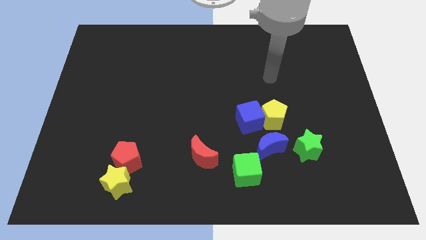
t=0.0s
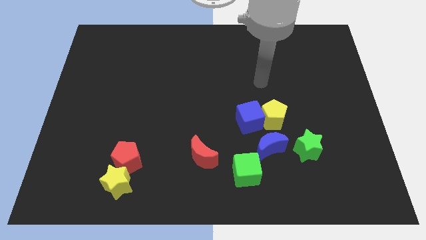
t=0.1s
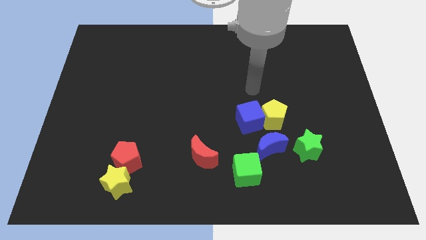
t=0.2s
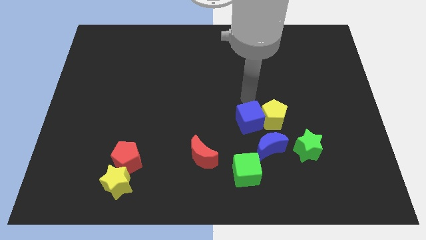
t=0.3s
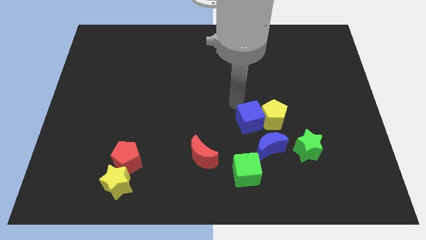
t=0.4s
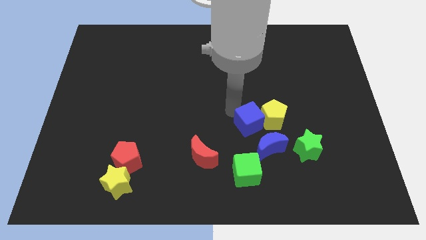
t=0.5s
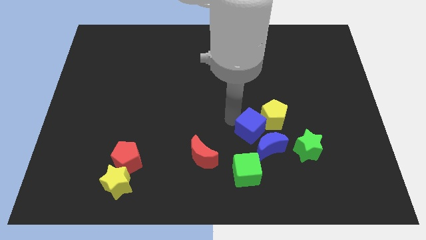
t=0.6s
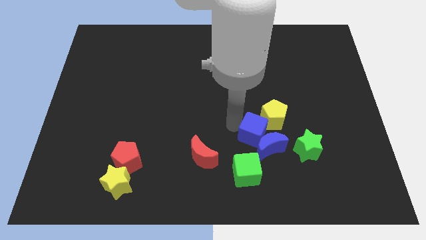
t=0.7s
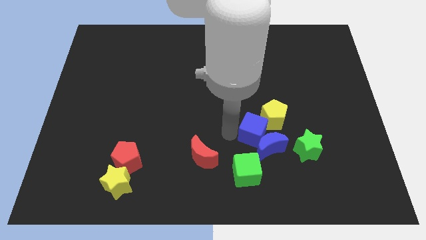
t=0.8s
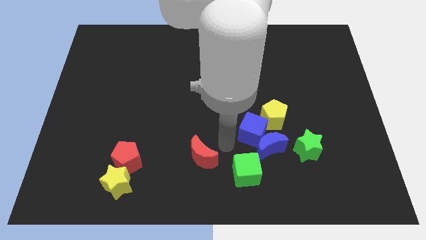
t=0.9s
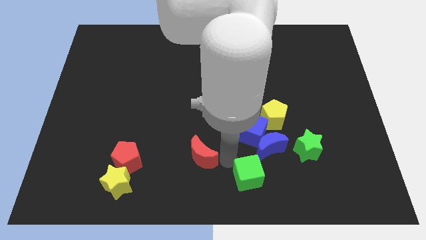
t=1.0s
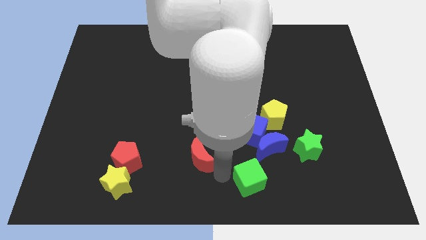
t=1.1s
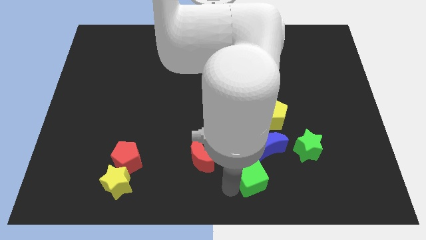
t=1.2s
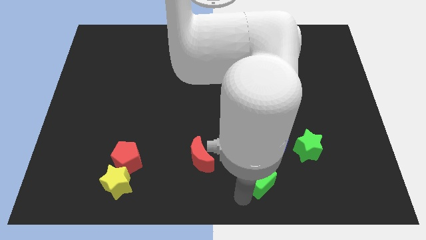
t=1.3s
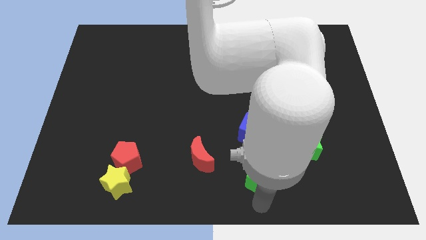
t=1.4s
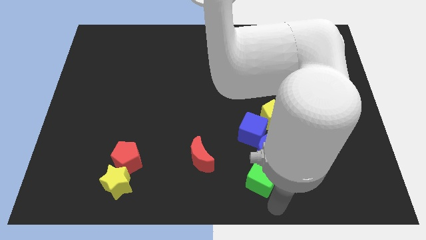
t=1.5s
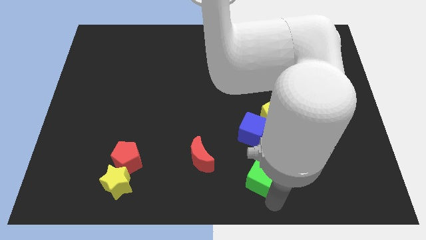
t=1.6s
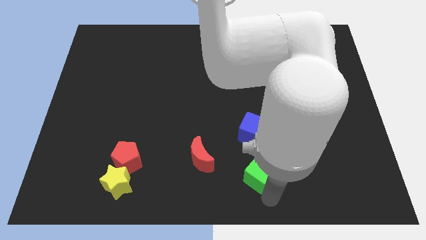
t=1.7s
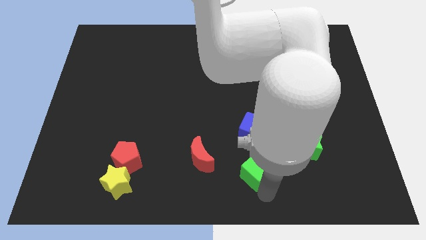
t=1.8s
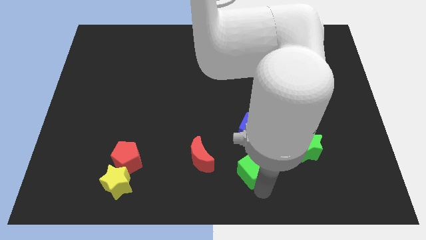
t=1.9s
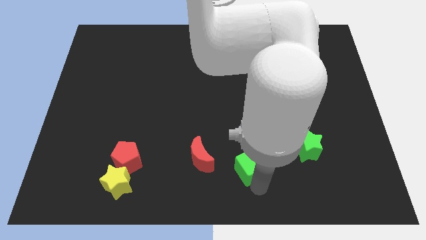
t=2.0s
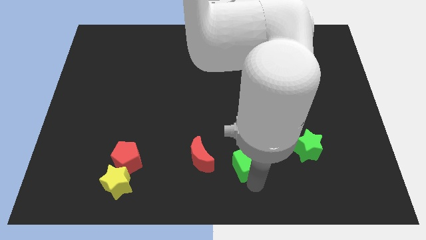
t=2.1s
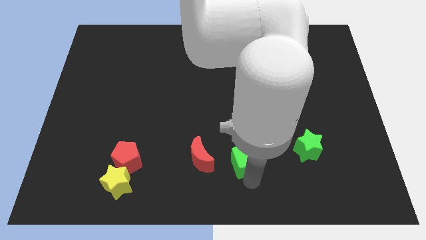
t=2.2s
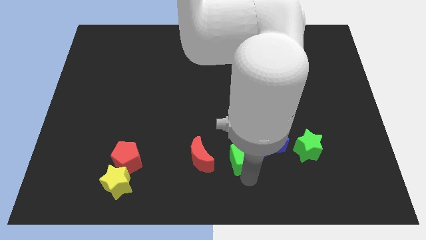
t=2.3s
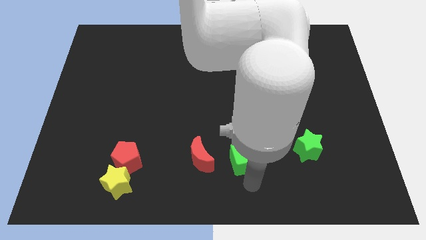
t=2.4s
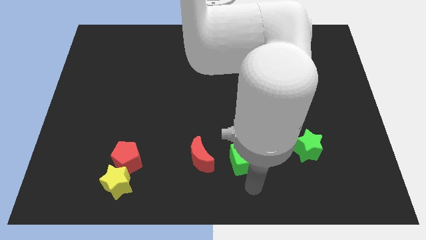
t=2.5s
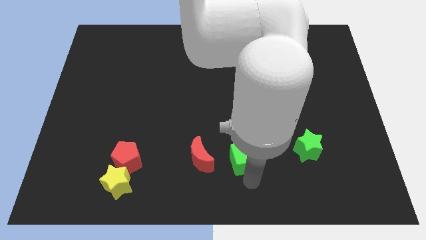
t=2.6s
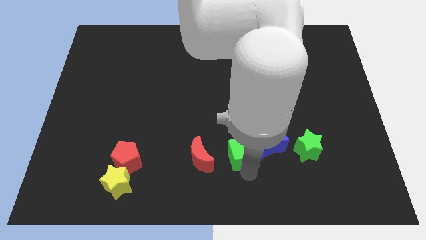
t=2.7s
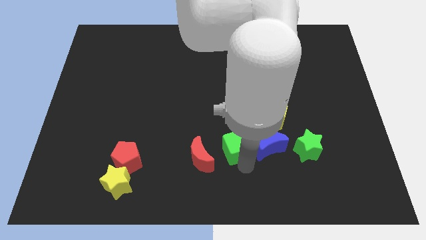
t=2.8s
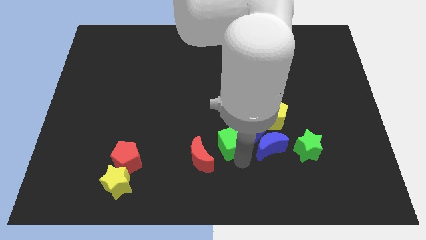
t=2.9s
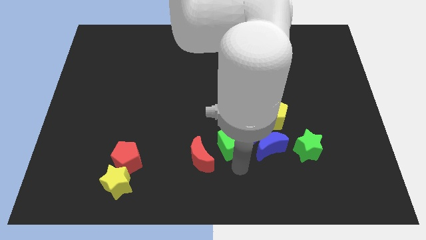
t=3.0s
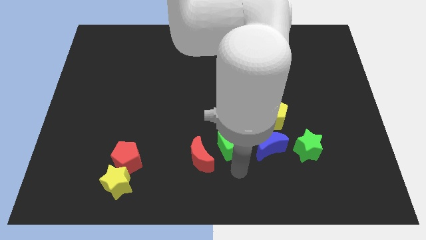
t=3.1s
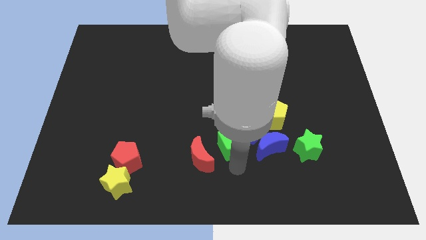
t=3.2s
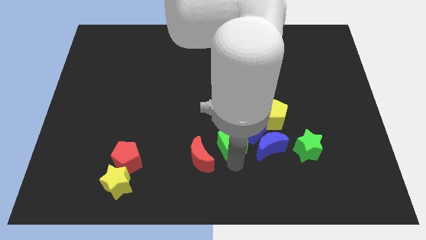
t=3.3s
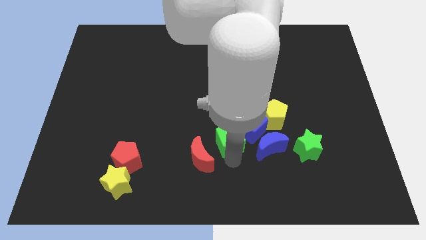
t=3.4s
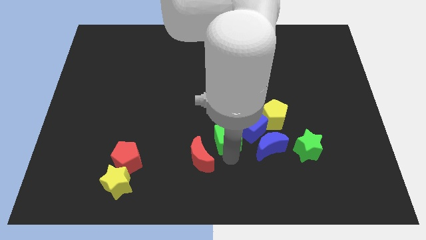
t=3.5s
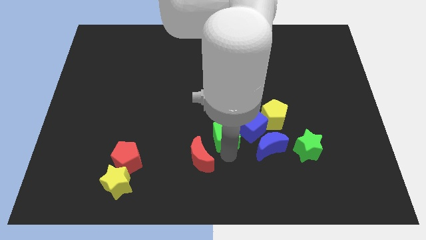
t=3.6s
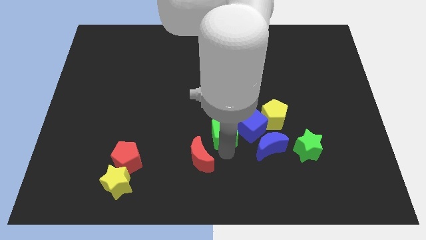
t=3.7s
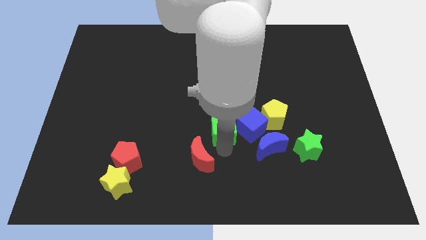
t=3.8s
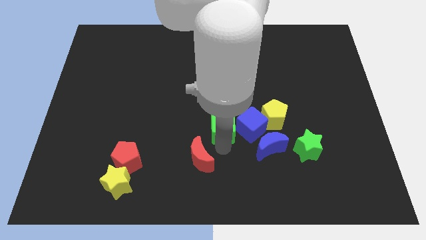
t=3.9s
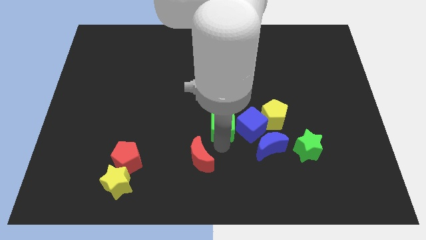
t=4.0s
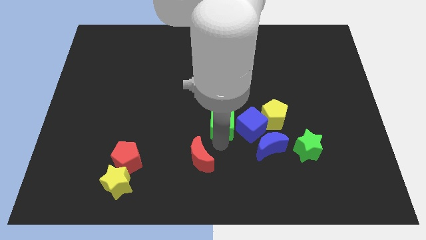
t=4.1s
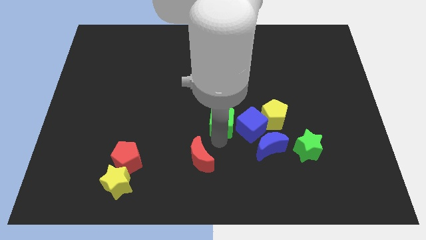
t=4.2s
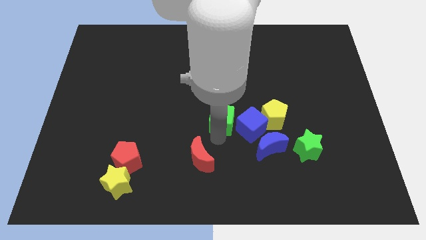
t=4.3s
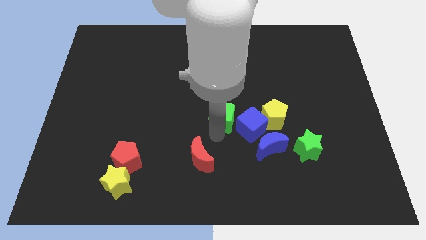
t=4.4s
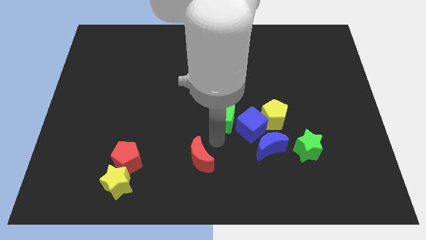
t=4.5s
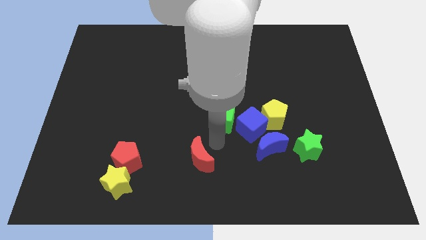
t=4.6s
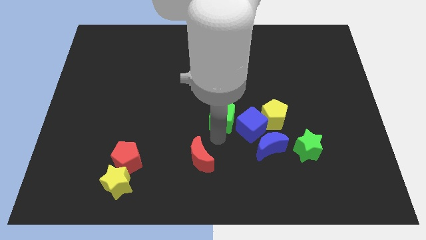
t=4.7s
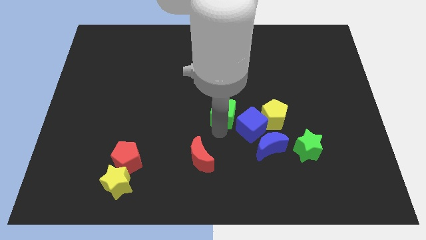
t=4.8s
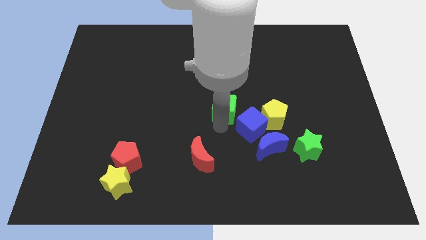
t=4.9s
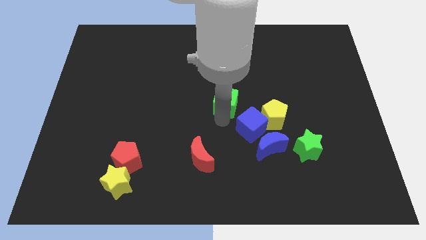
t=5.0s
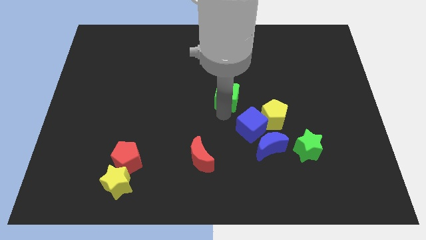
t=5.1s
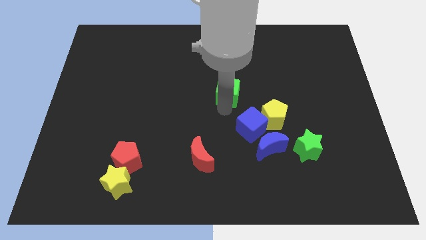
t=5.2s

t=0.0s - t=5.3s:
move the green cube up

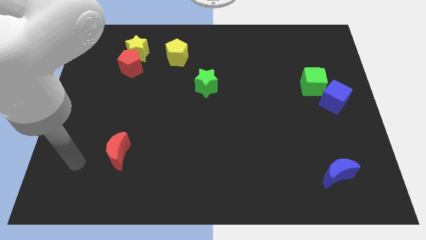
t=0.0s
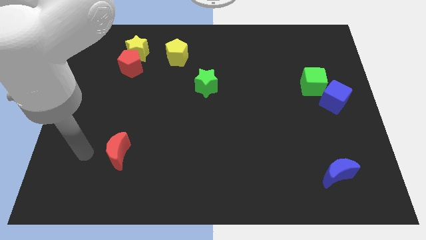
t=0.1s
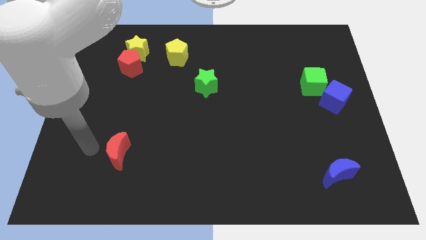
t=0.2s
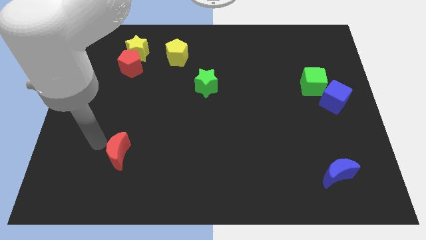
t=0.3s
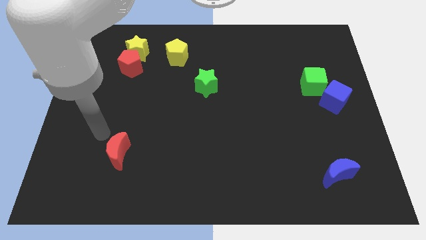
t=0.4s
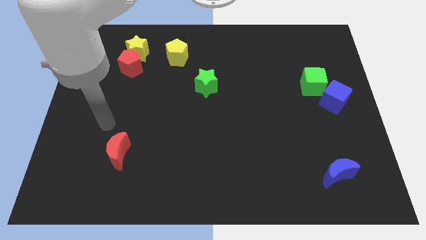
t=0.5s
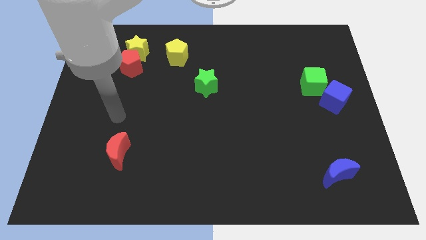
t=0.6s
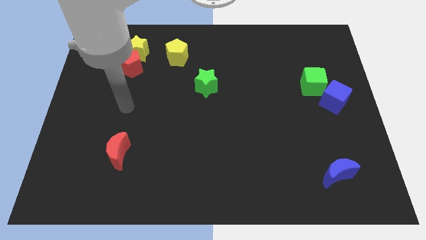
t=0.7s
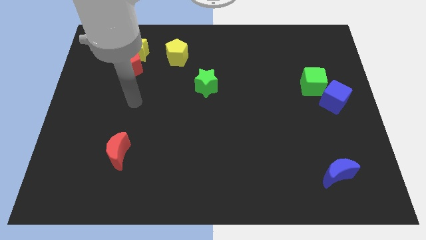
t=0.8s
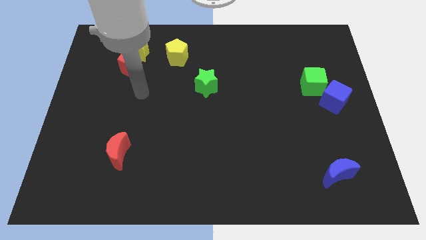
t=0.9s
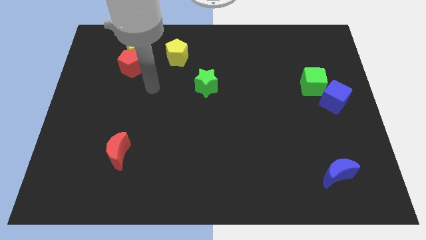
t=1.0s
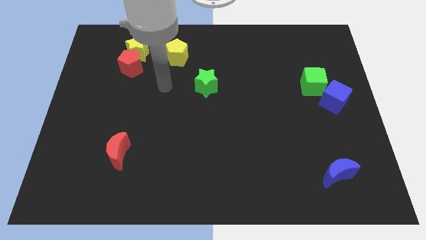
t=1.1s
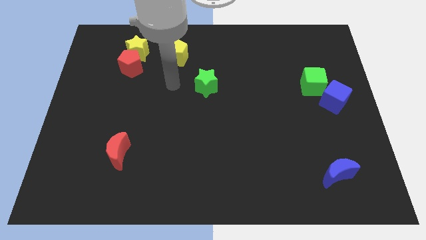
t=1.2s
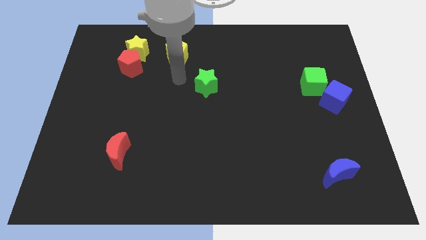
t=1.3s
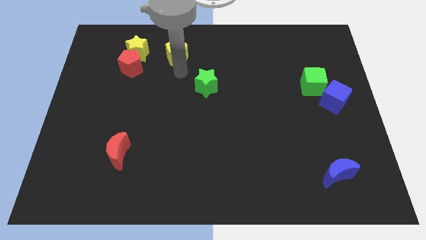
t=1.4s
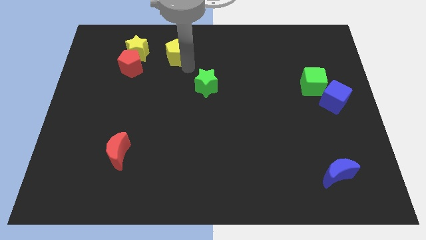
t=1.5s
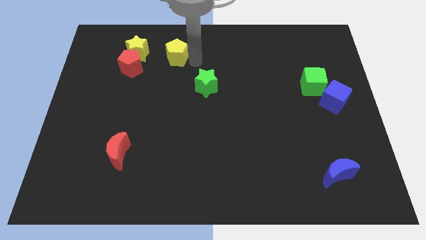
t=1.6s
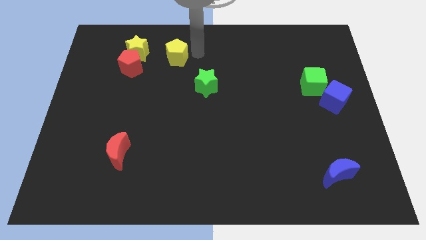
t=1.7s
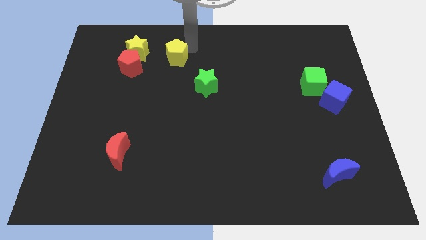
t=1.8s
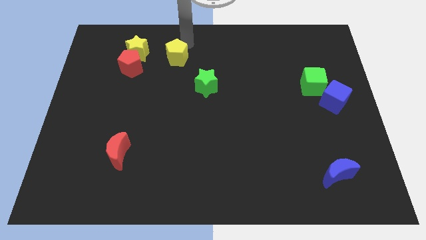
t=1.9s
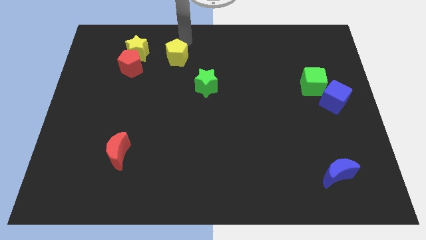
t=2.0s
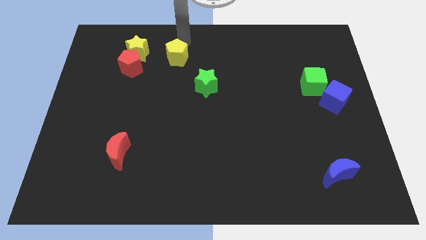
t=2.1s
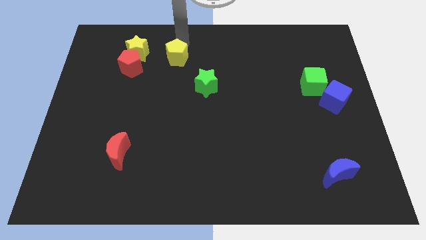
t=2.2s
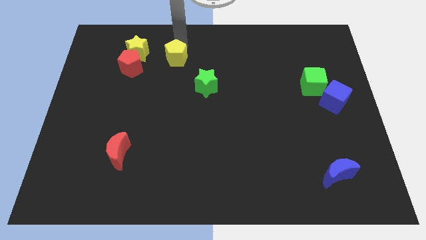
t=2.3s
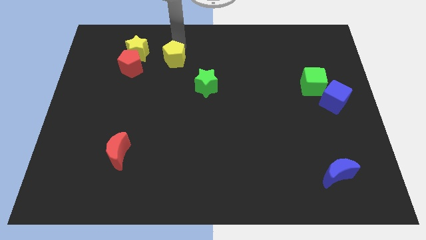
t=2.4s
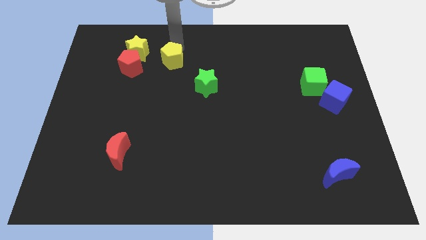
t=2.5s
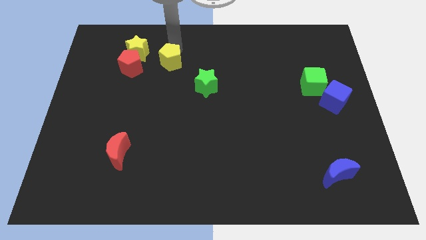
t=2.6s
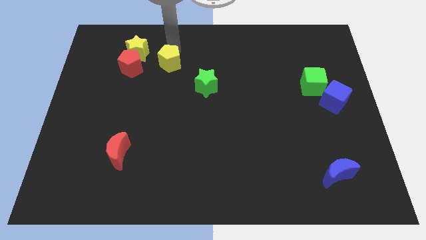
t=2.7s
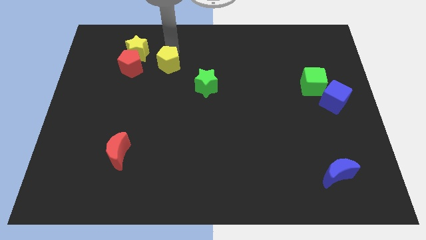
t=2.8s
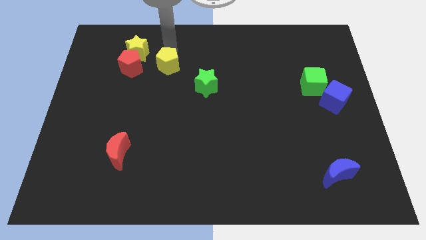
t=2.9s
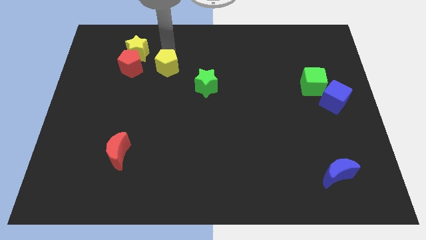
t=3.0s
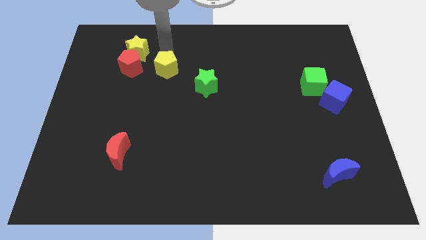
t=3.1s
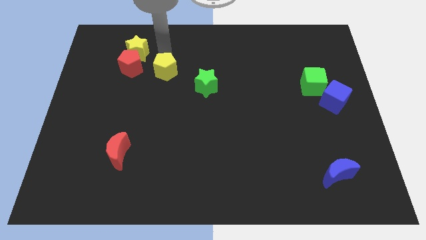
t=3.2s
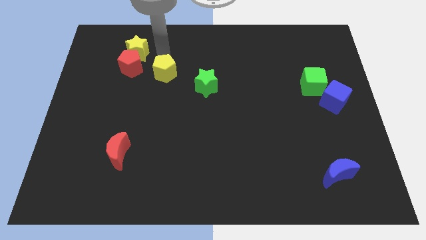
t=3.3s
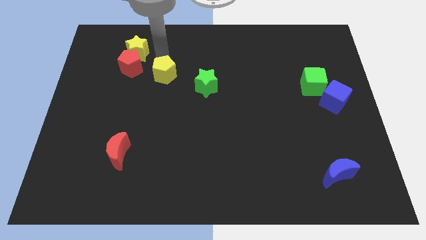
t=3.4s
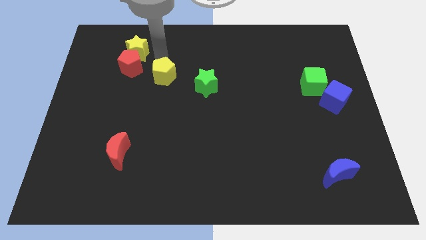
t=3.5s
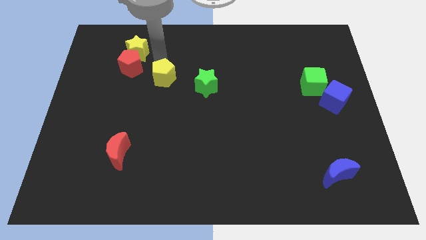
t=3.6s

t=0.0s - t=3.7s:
slightly slide the yellow pentagon down
